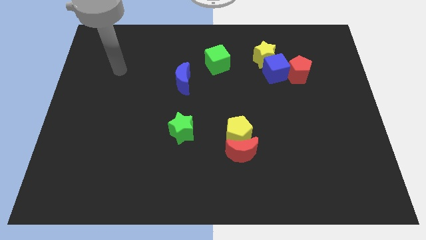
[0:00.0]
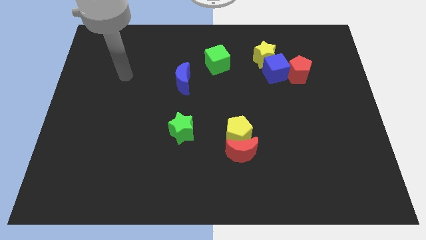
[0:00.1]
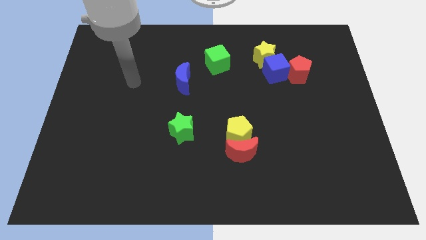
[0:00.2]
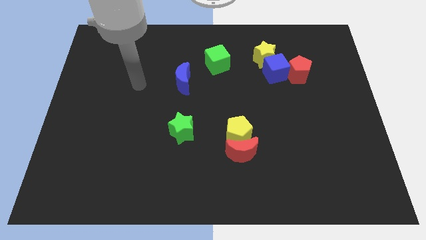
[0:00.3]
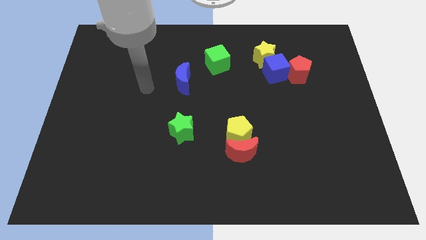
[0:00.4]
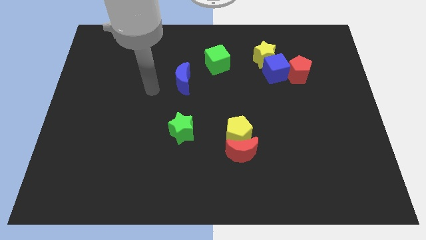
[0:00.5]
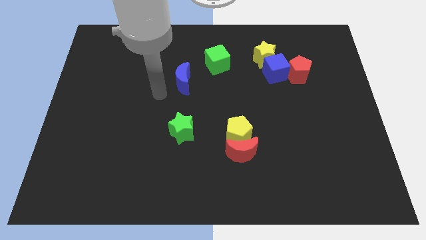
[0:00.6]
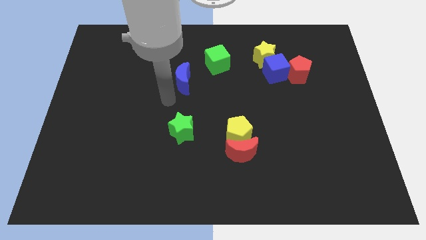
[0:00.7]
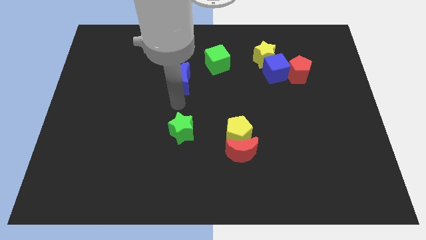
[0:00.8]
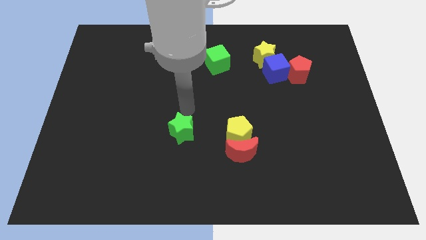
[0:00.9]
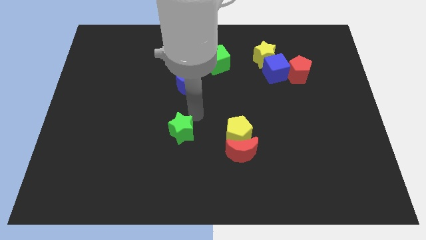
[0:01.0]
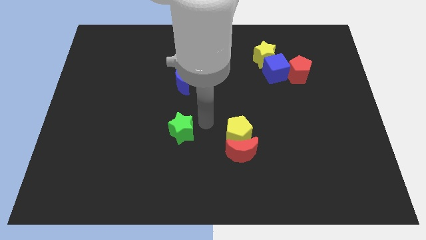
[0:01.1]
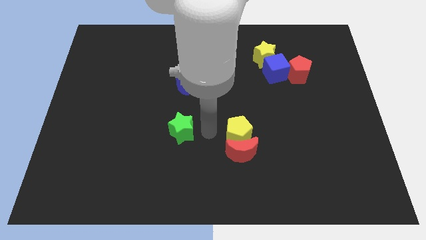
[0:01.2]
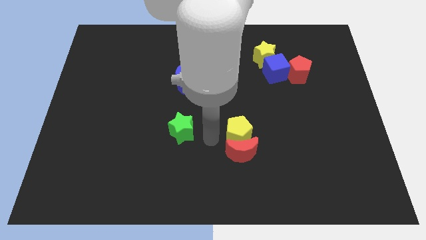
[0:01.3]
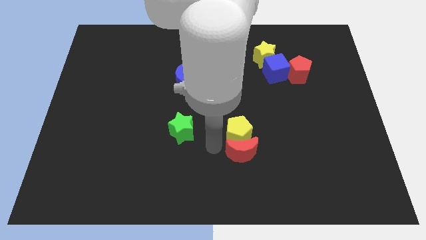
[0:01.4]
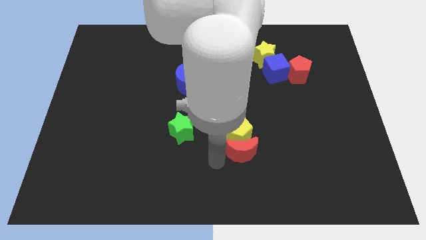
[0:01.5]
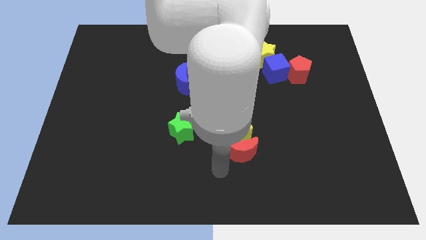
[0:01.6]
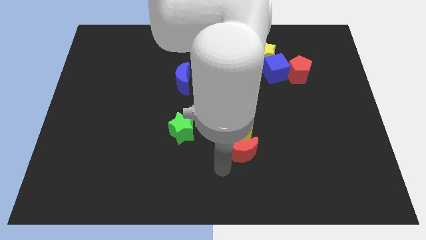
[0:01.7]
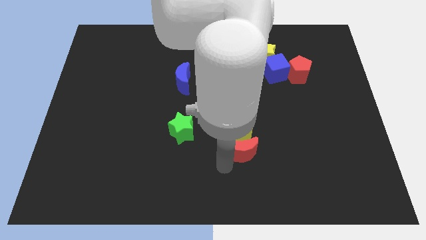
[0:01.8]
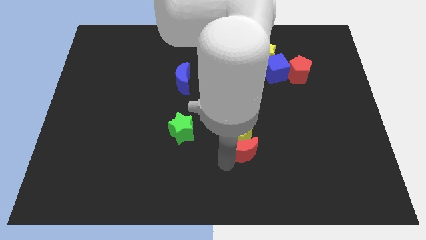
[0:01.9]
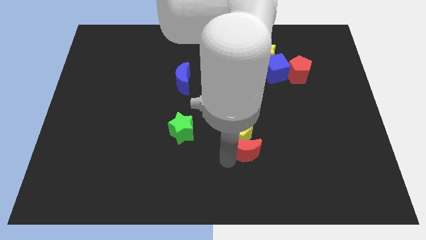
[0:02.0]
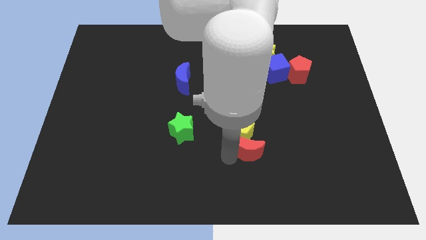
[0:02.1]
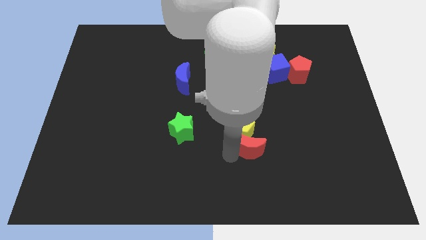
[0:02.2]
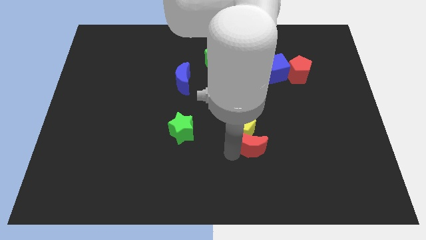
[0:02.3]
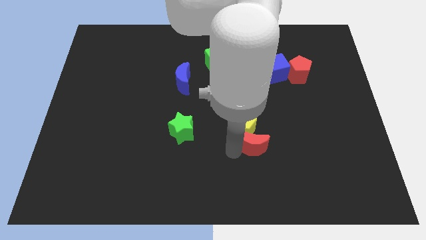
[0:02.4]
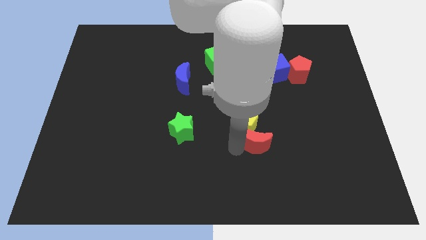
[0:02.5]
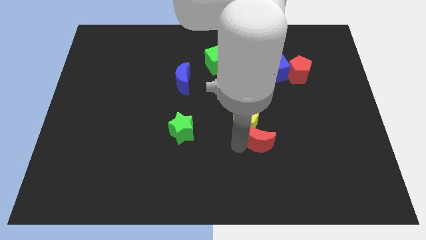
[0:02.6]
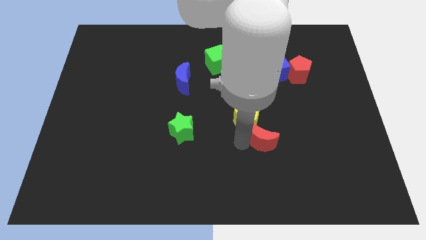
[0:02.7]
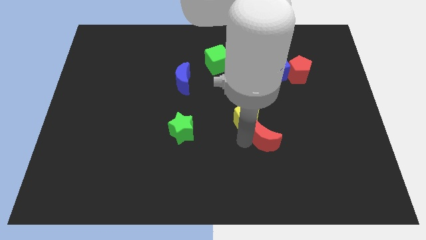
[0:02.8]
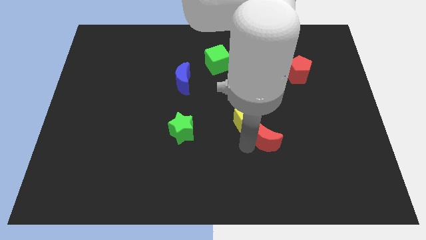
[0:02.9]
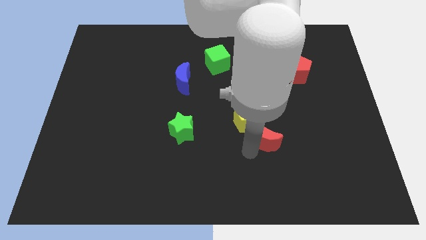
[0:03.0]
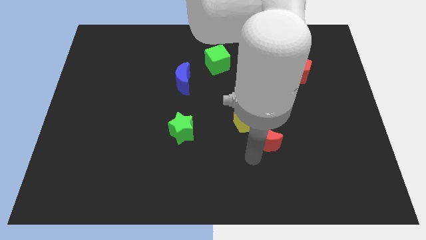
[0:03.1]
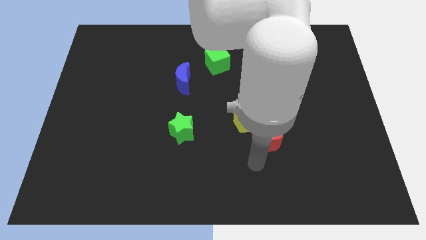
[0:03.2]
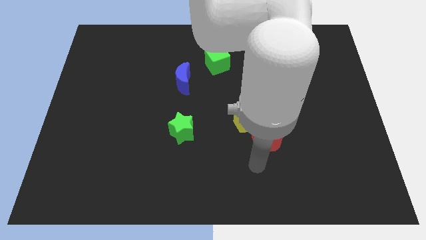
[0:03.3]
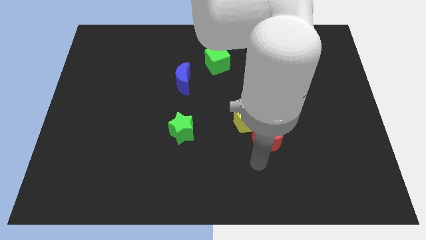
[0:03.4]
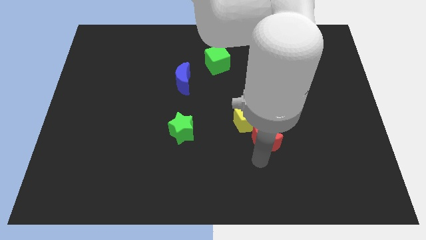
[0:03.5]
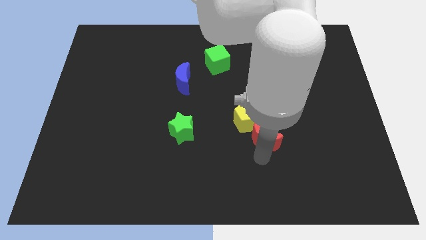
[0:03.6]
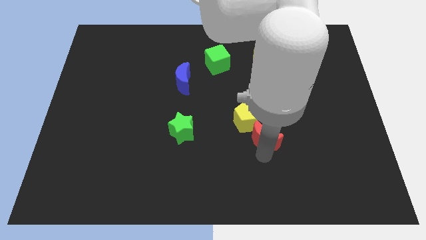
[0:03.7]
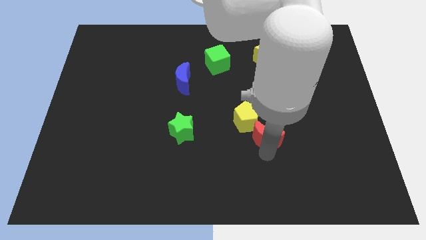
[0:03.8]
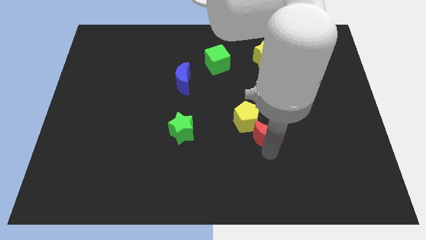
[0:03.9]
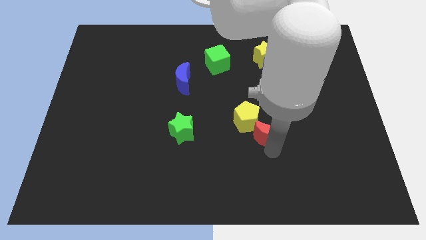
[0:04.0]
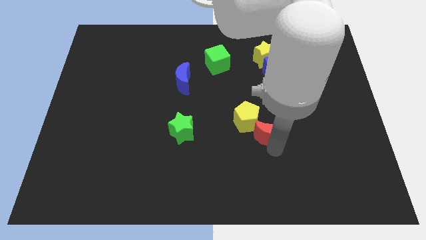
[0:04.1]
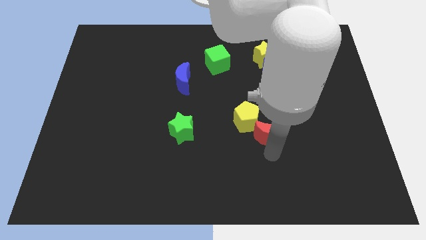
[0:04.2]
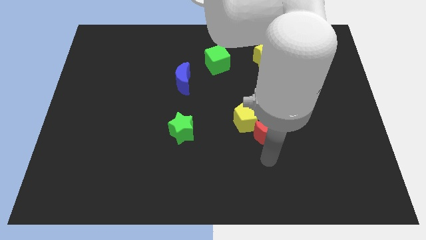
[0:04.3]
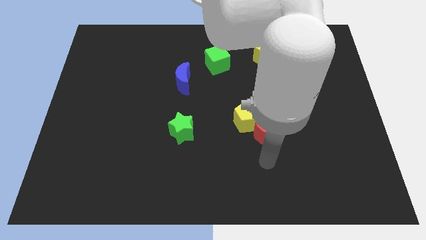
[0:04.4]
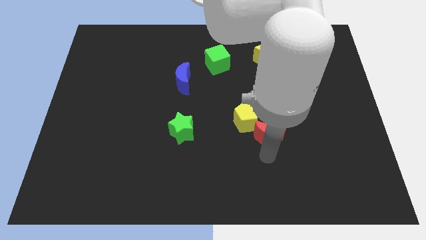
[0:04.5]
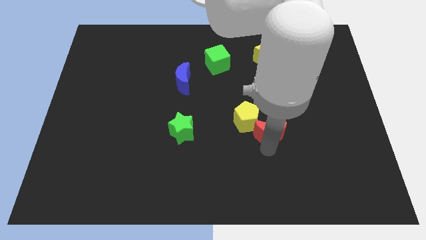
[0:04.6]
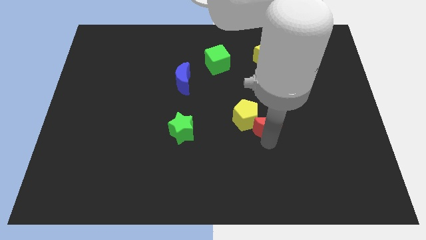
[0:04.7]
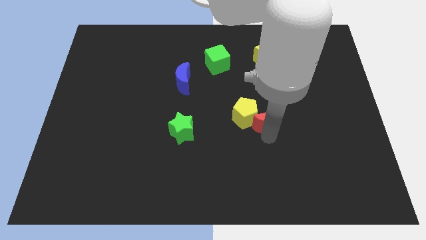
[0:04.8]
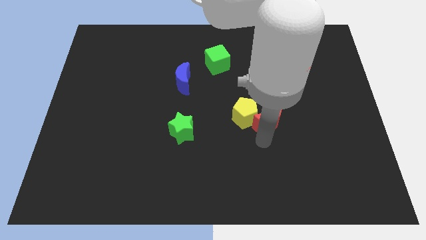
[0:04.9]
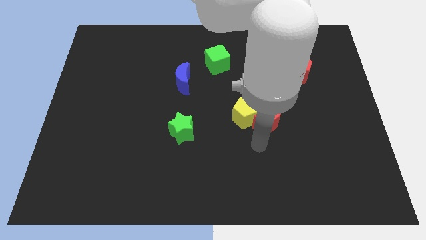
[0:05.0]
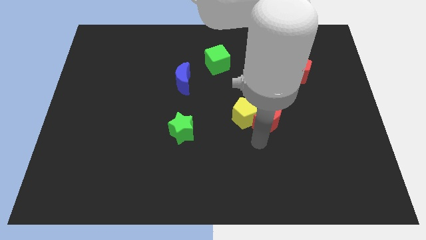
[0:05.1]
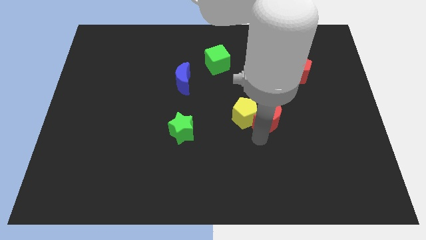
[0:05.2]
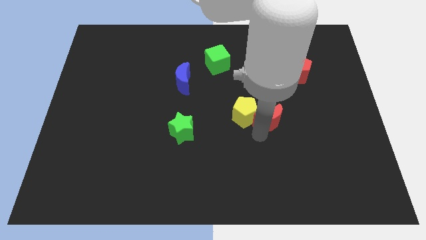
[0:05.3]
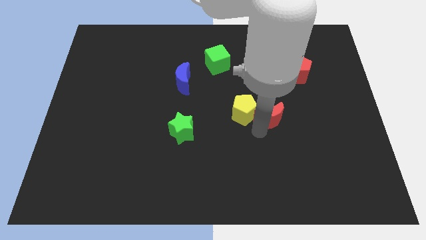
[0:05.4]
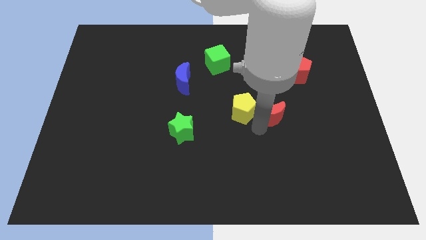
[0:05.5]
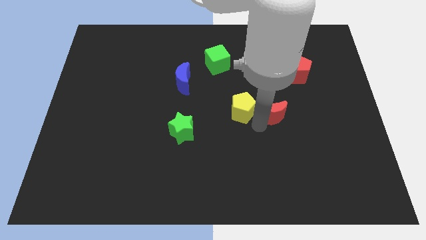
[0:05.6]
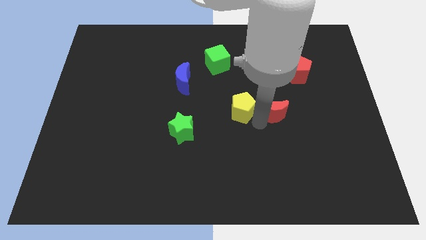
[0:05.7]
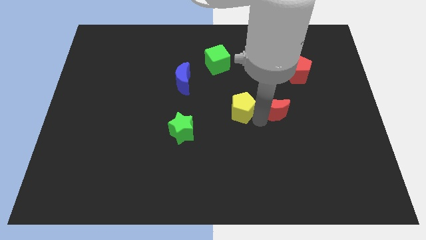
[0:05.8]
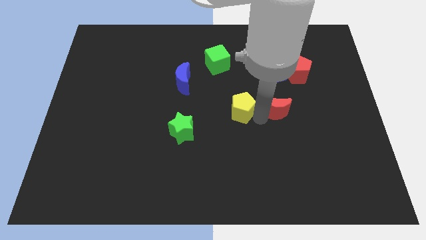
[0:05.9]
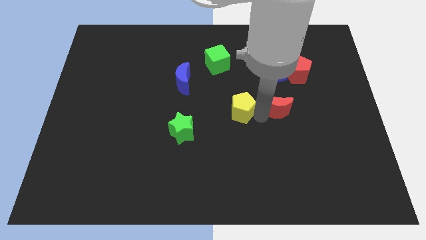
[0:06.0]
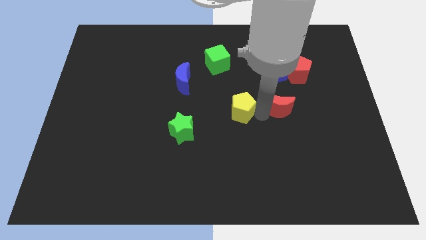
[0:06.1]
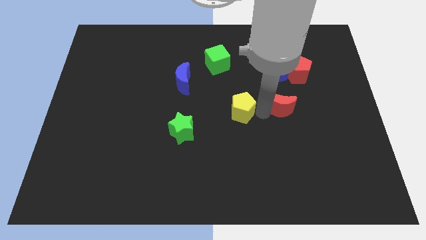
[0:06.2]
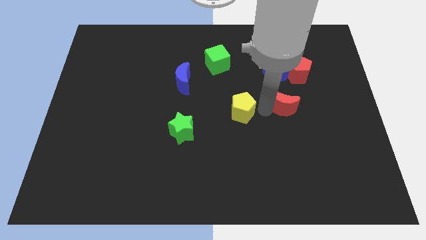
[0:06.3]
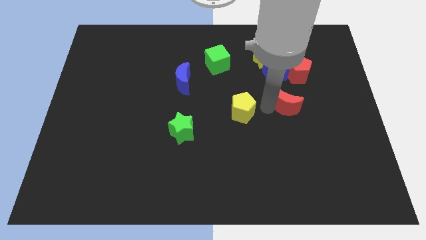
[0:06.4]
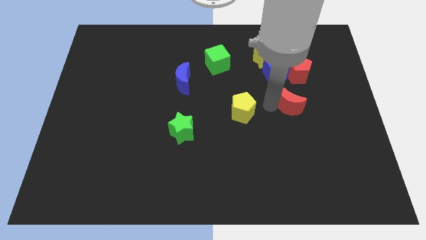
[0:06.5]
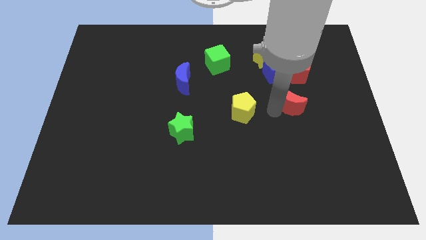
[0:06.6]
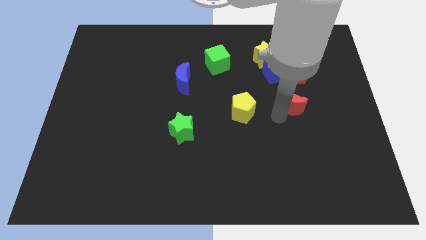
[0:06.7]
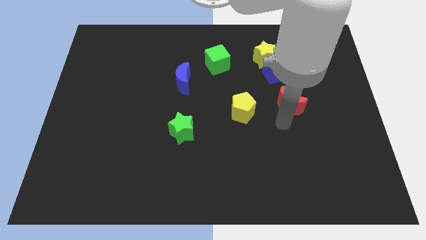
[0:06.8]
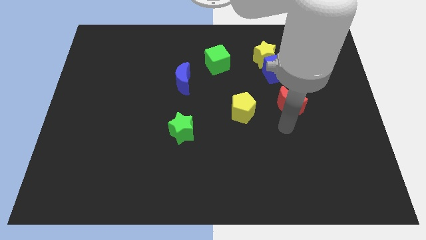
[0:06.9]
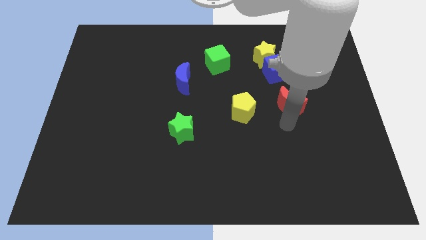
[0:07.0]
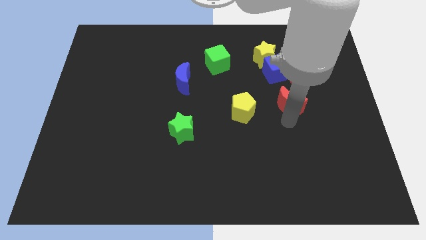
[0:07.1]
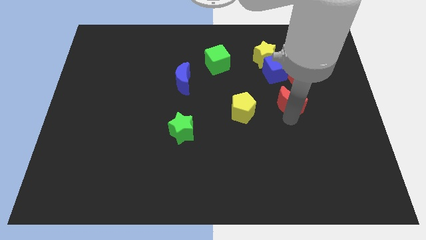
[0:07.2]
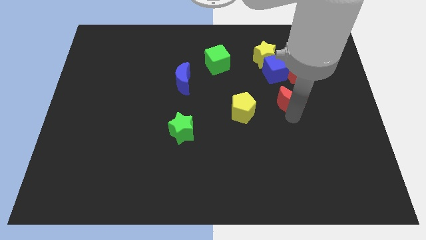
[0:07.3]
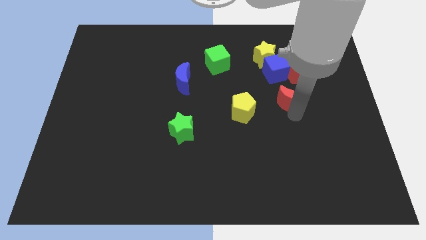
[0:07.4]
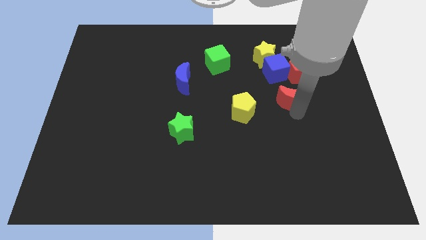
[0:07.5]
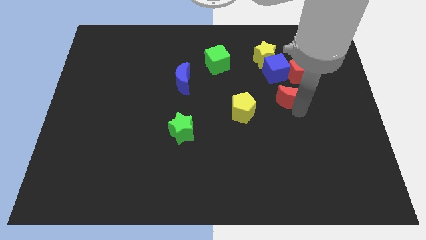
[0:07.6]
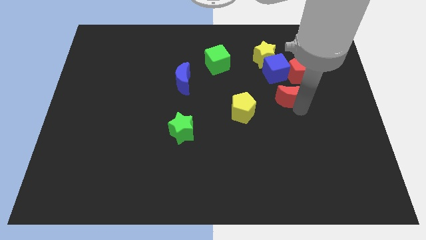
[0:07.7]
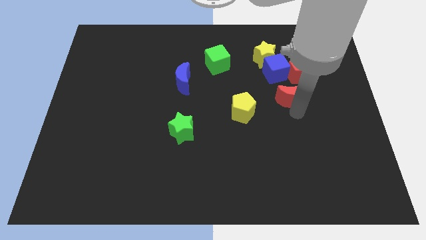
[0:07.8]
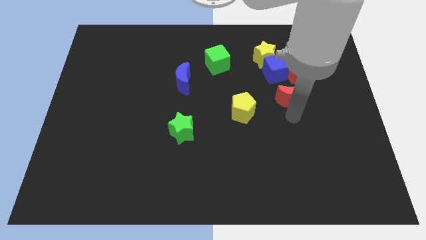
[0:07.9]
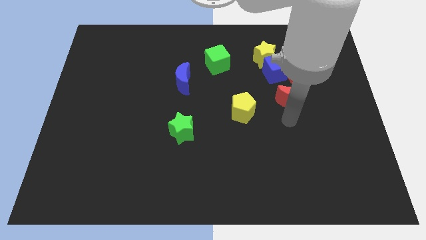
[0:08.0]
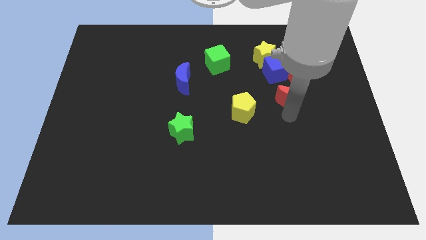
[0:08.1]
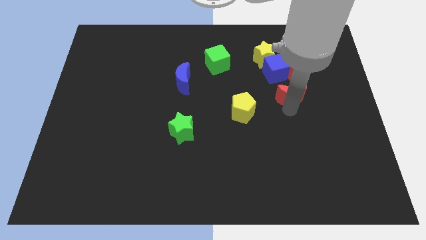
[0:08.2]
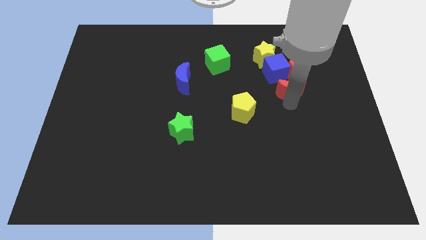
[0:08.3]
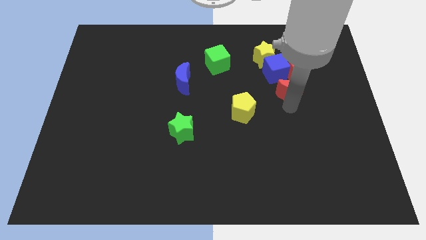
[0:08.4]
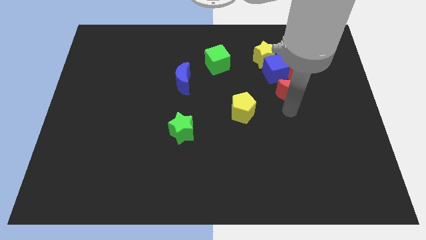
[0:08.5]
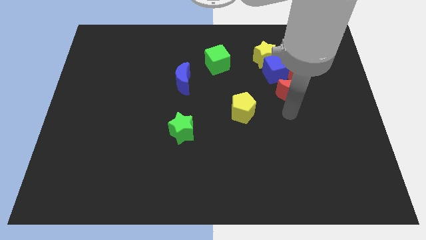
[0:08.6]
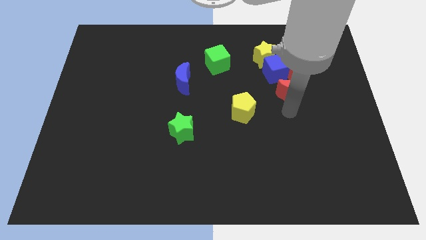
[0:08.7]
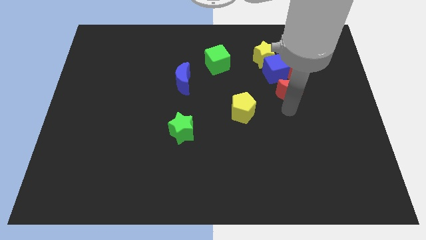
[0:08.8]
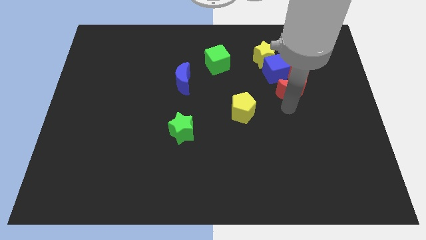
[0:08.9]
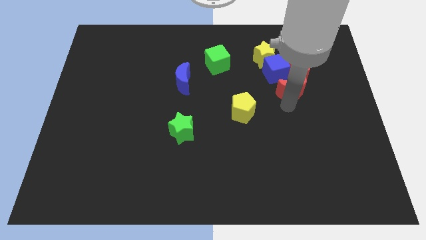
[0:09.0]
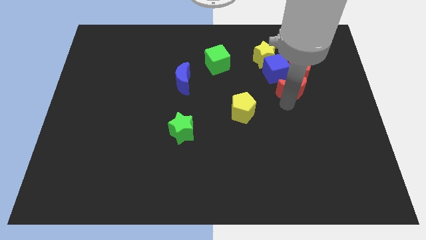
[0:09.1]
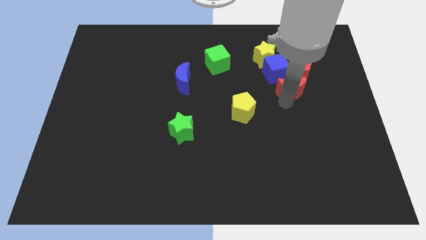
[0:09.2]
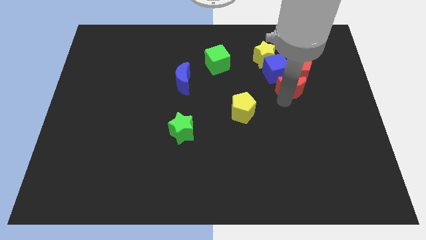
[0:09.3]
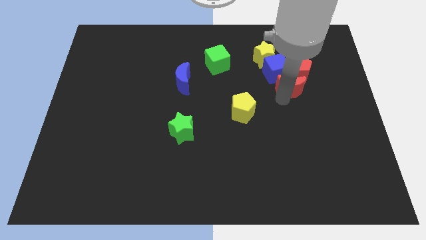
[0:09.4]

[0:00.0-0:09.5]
slide the red moon to the red pentagon
